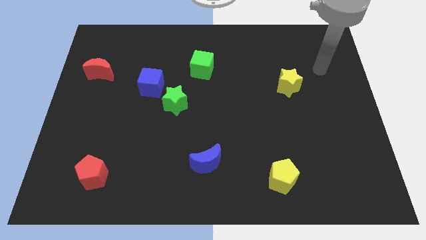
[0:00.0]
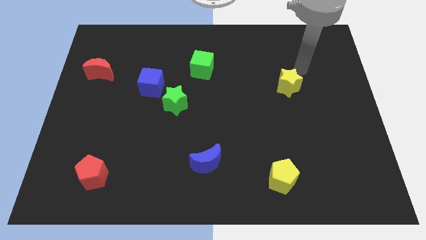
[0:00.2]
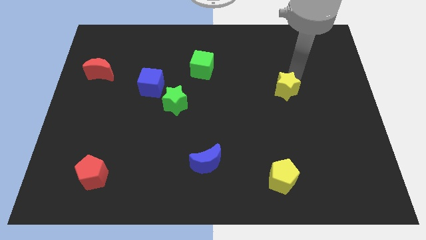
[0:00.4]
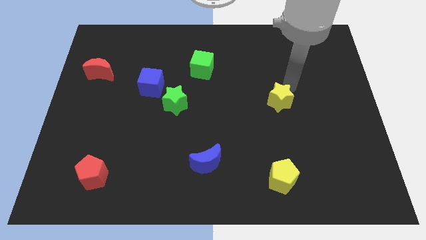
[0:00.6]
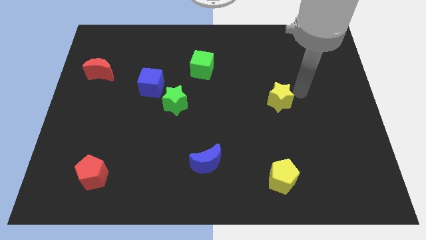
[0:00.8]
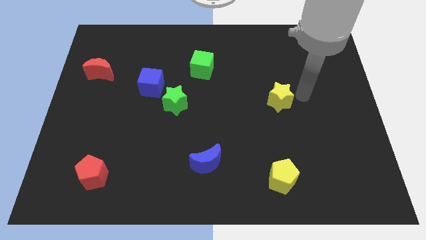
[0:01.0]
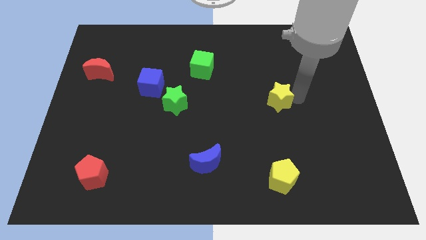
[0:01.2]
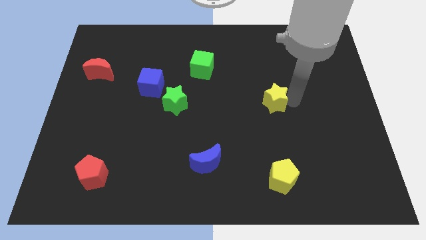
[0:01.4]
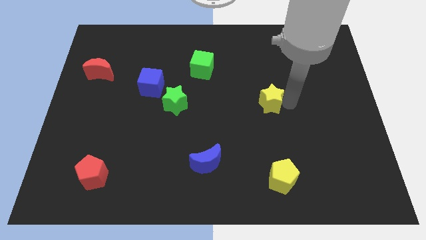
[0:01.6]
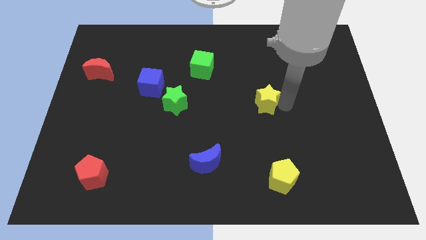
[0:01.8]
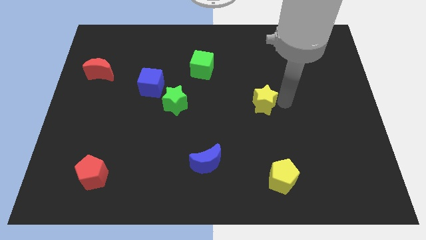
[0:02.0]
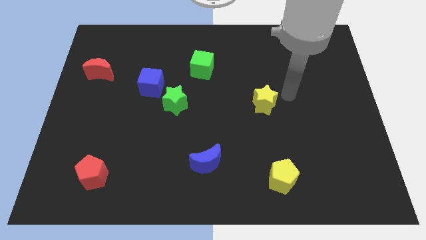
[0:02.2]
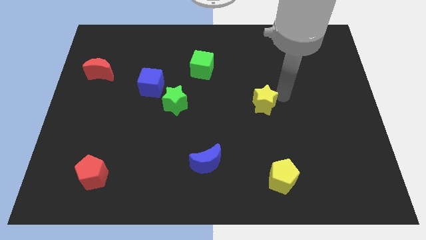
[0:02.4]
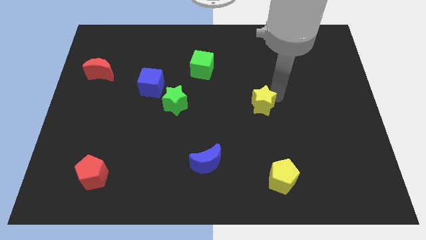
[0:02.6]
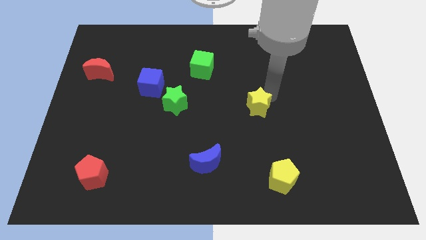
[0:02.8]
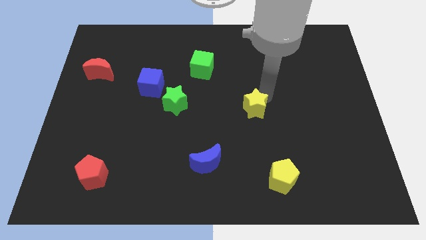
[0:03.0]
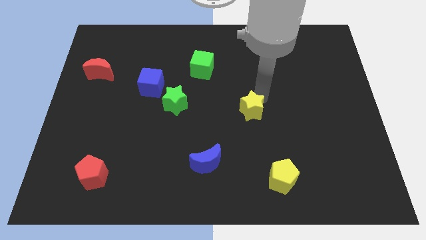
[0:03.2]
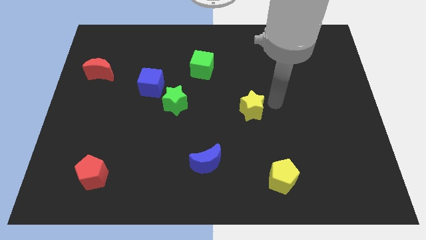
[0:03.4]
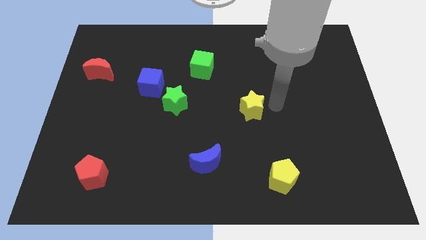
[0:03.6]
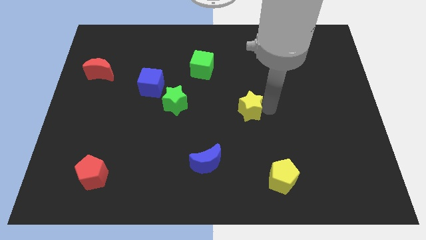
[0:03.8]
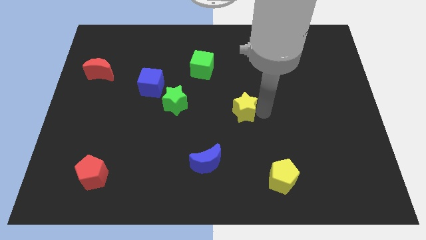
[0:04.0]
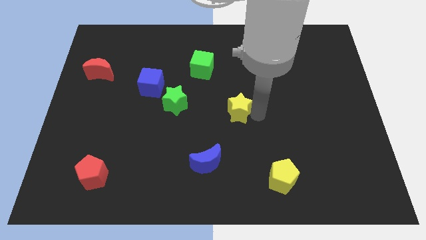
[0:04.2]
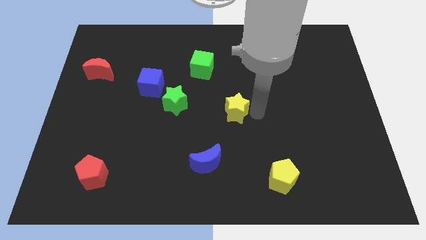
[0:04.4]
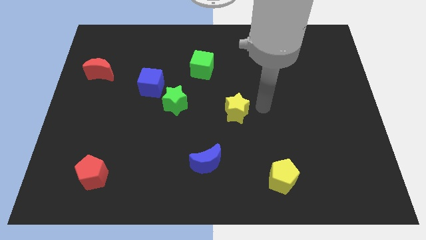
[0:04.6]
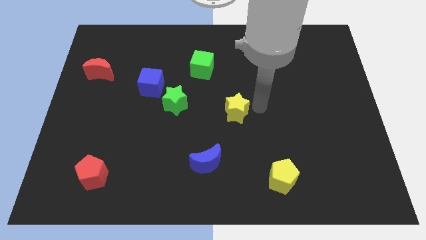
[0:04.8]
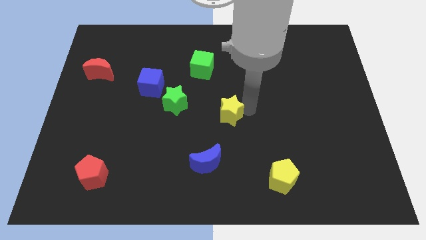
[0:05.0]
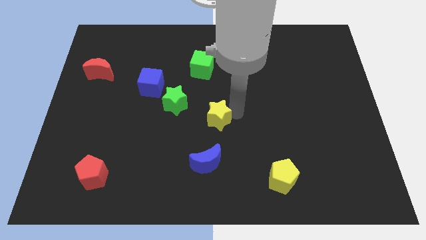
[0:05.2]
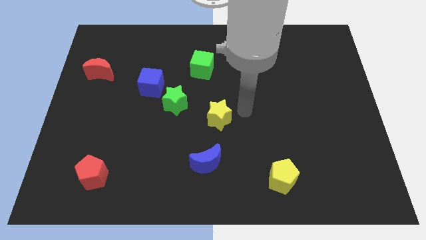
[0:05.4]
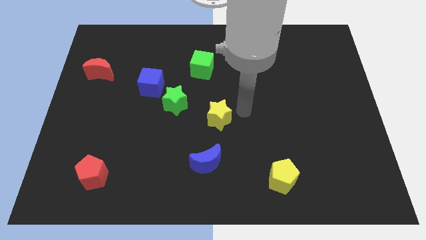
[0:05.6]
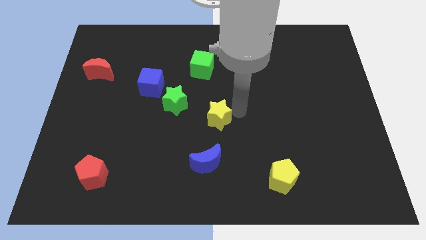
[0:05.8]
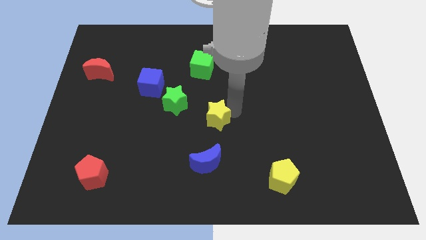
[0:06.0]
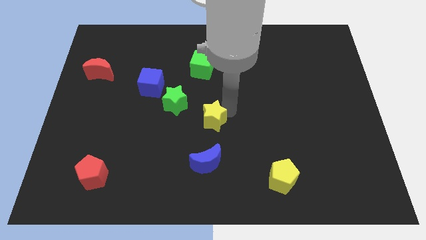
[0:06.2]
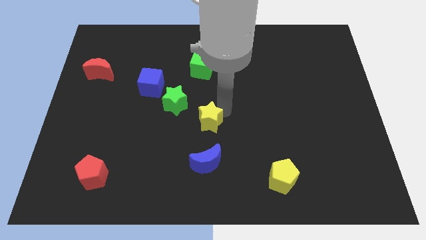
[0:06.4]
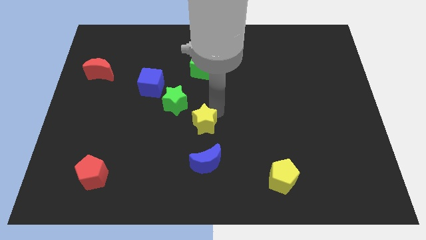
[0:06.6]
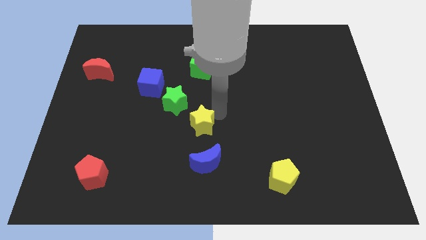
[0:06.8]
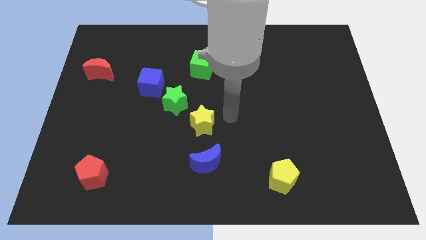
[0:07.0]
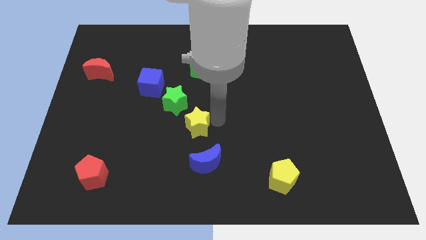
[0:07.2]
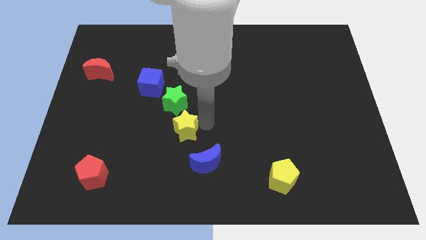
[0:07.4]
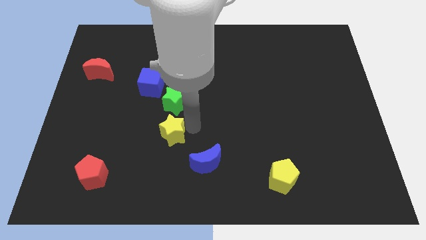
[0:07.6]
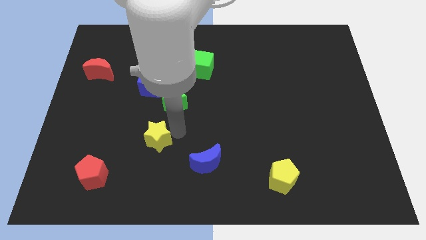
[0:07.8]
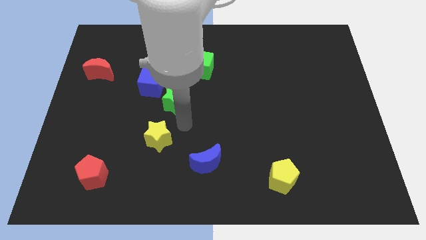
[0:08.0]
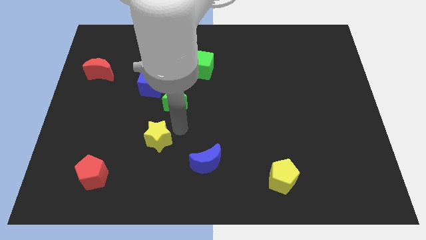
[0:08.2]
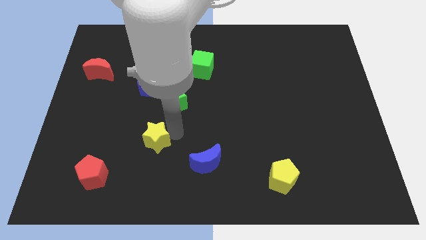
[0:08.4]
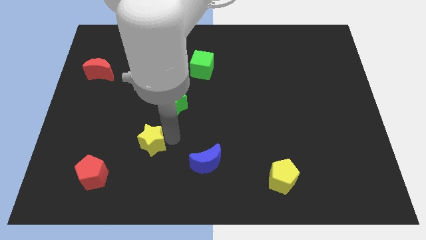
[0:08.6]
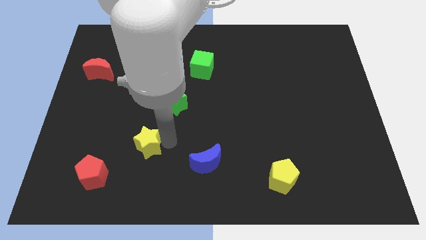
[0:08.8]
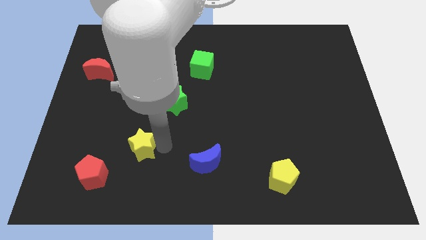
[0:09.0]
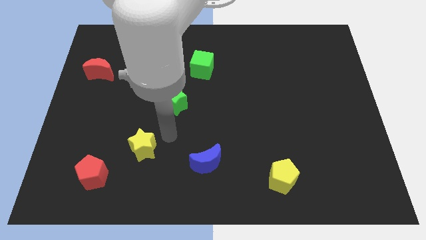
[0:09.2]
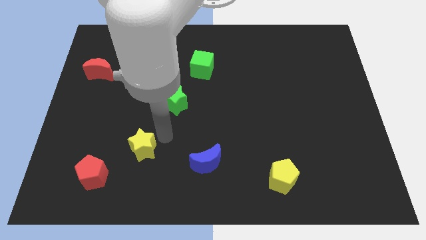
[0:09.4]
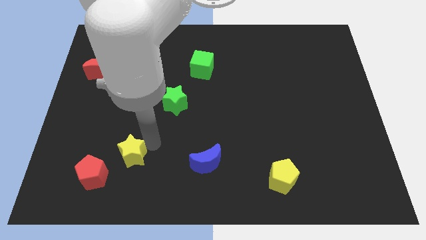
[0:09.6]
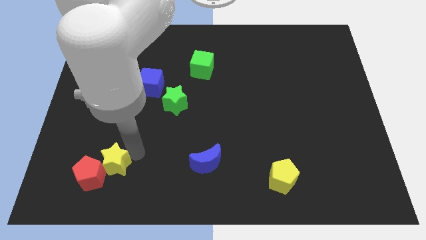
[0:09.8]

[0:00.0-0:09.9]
put the yellow star close to the red pentagon

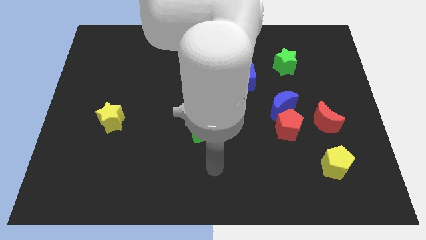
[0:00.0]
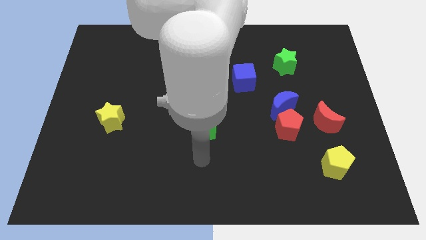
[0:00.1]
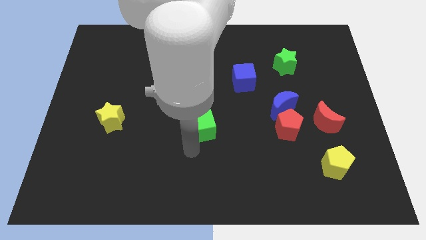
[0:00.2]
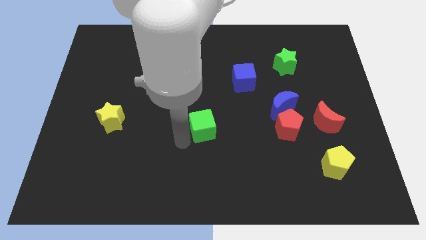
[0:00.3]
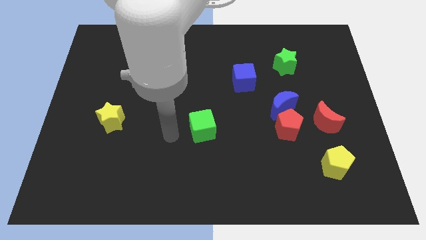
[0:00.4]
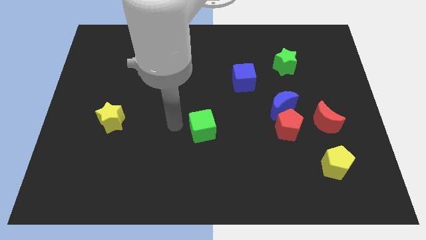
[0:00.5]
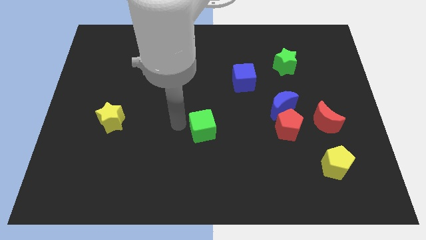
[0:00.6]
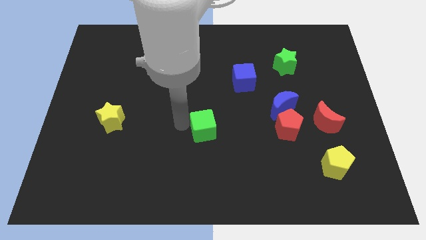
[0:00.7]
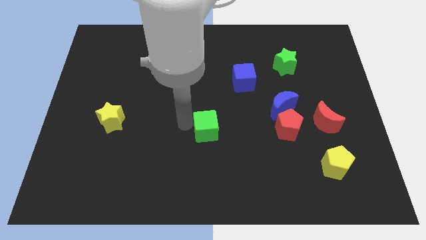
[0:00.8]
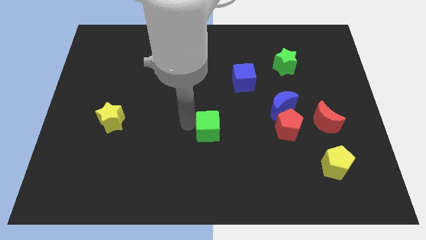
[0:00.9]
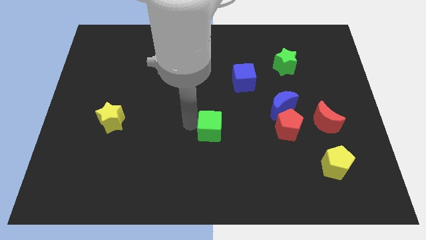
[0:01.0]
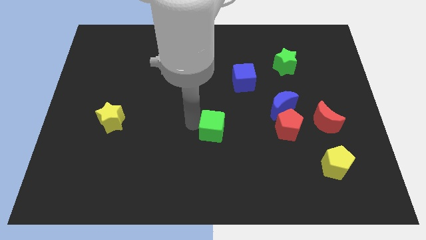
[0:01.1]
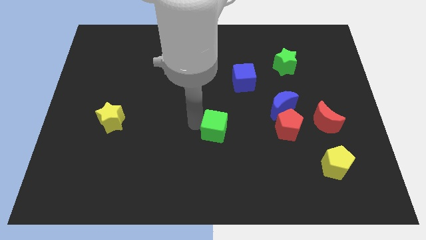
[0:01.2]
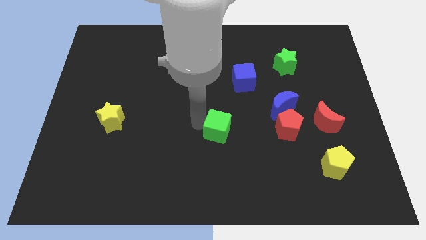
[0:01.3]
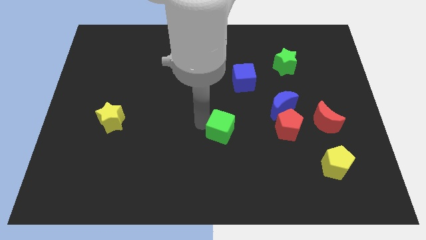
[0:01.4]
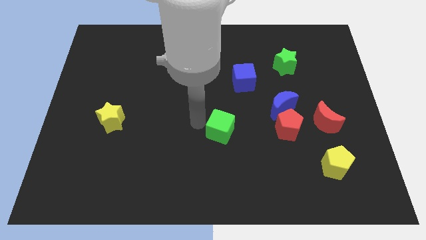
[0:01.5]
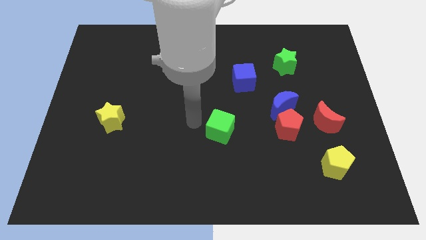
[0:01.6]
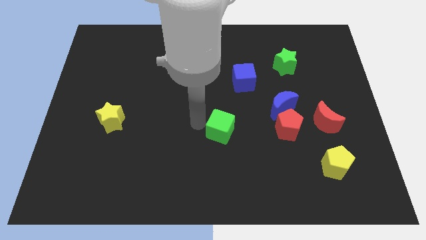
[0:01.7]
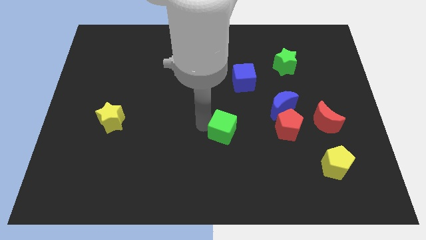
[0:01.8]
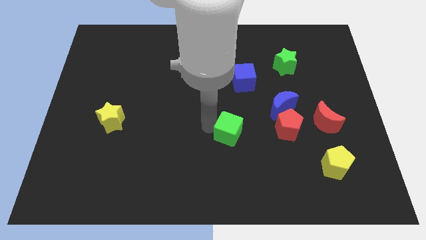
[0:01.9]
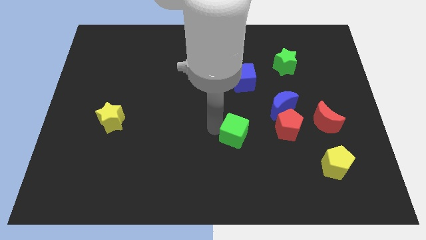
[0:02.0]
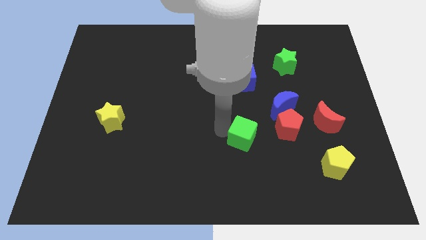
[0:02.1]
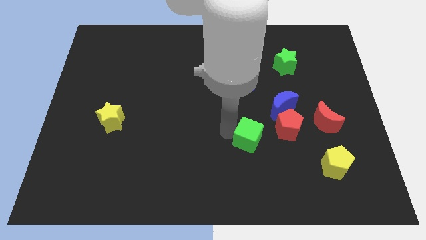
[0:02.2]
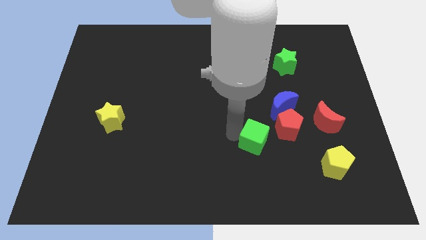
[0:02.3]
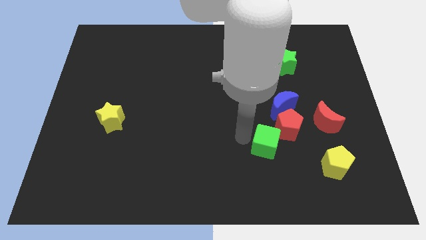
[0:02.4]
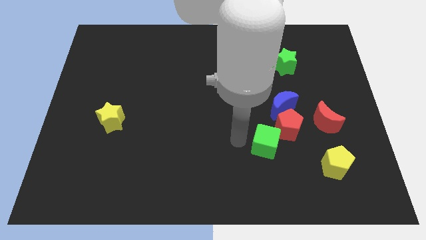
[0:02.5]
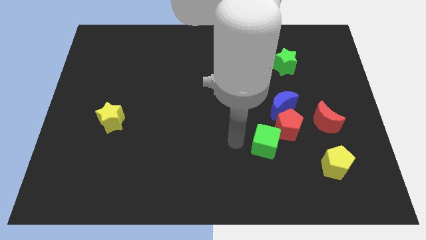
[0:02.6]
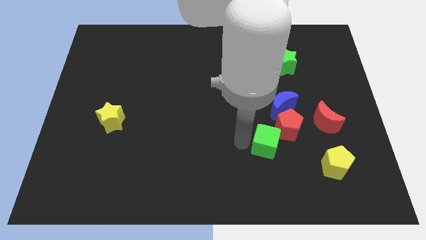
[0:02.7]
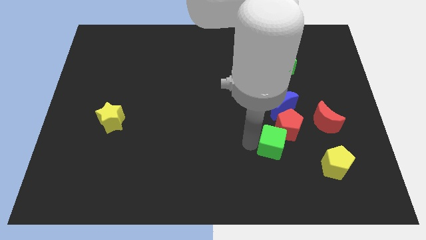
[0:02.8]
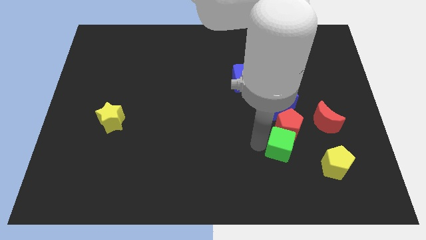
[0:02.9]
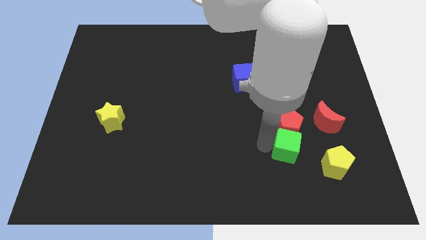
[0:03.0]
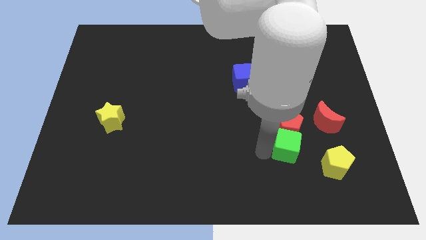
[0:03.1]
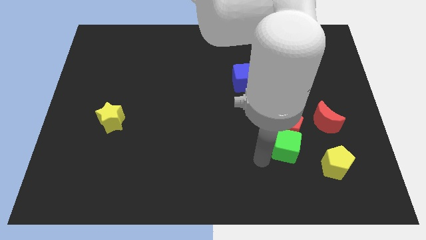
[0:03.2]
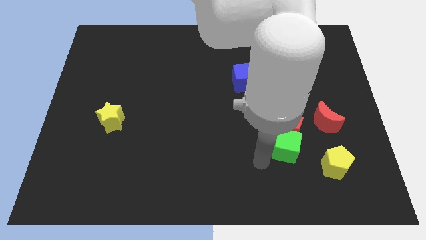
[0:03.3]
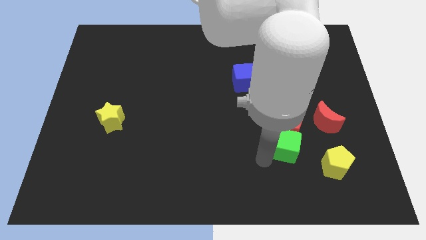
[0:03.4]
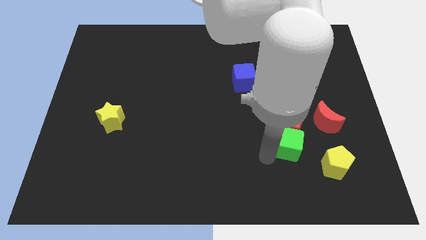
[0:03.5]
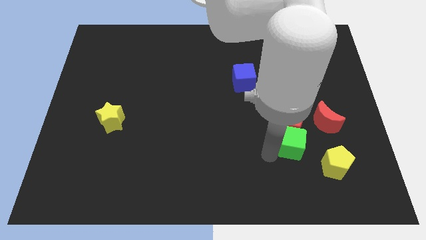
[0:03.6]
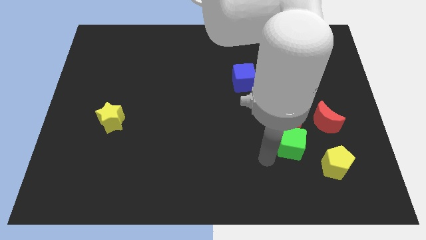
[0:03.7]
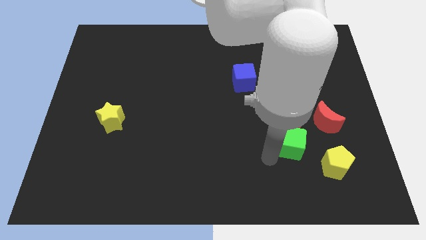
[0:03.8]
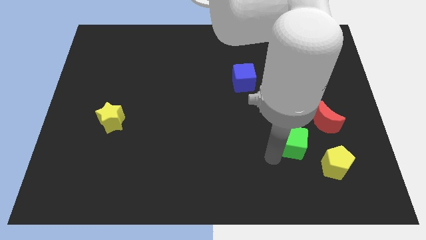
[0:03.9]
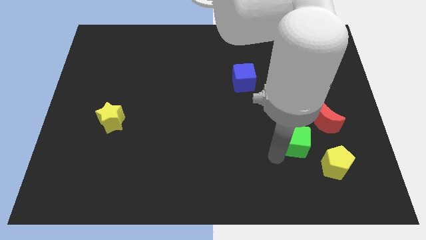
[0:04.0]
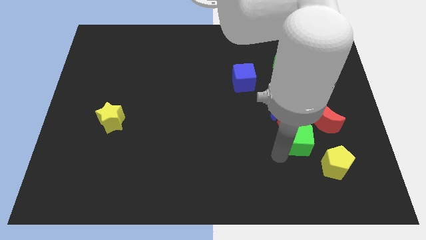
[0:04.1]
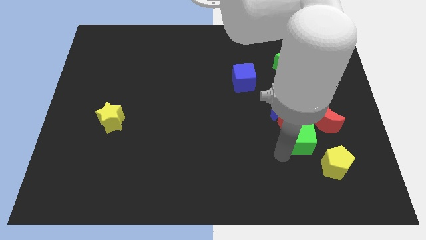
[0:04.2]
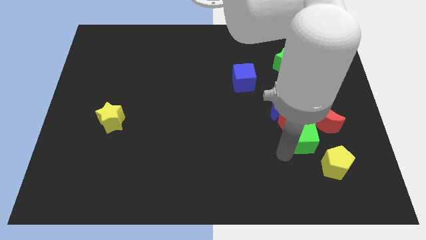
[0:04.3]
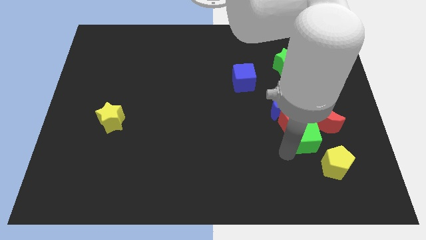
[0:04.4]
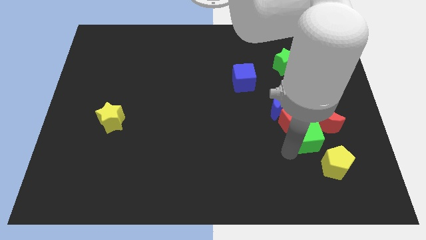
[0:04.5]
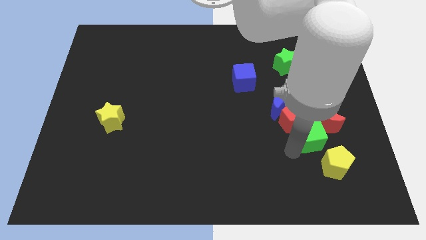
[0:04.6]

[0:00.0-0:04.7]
move the green cube towards the red moon
